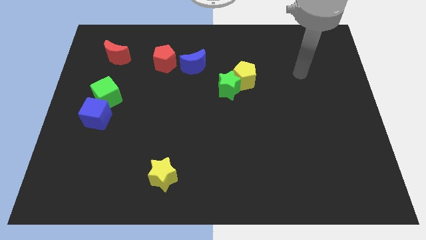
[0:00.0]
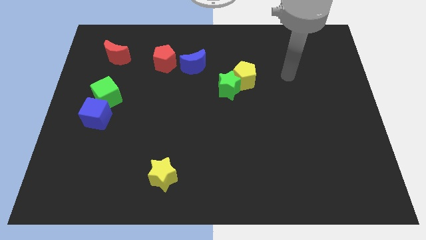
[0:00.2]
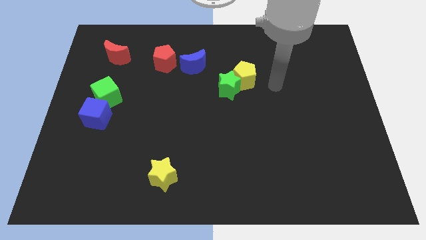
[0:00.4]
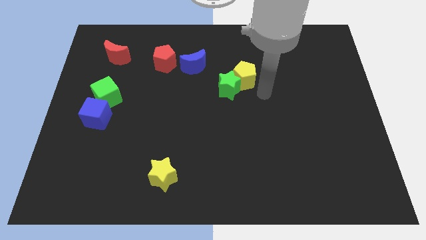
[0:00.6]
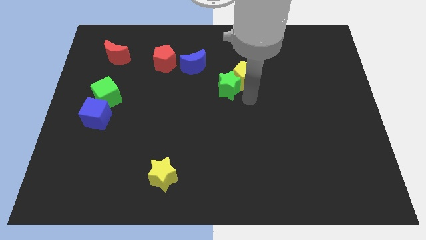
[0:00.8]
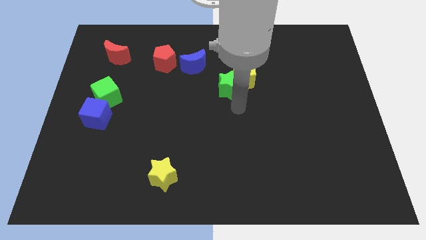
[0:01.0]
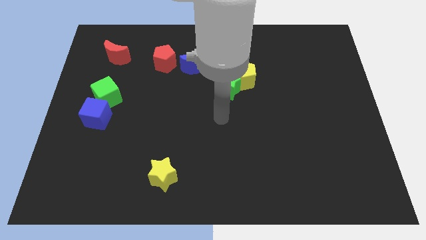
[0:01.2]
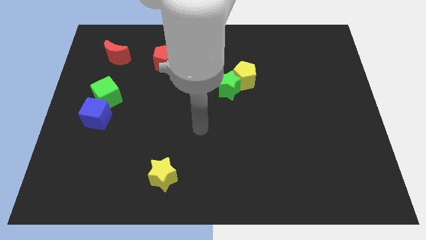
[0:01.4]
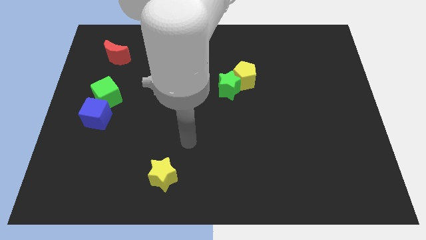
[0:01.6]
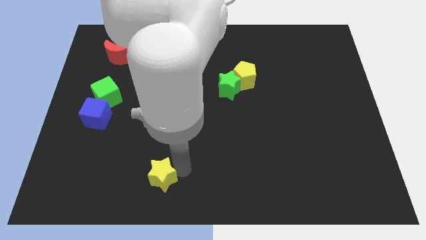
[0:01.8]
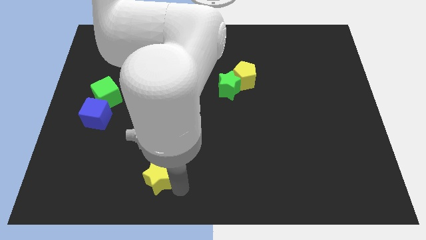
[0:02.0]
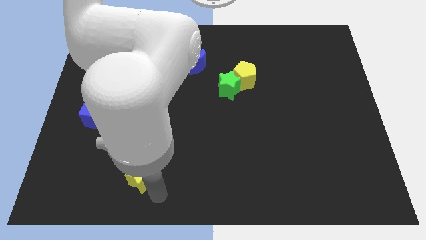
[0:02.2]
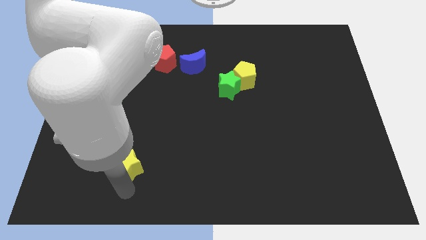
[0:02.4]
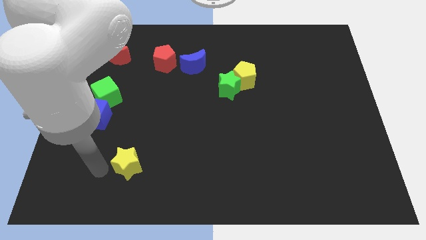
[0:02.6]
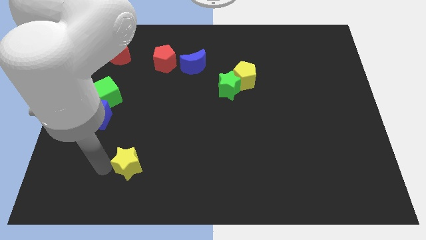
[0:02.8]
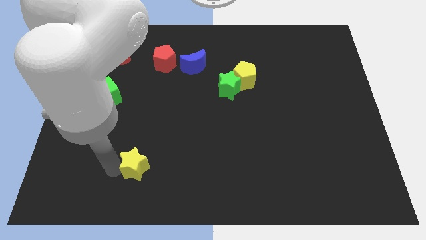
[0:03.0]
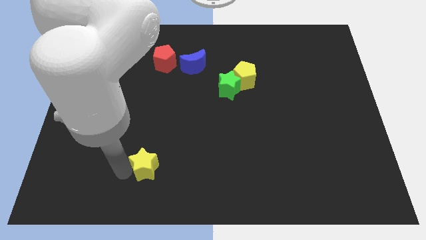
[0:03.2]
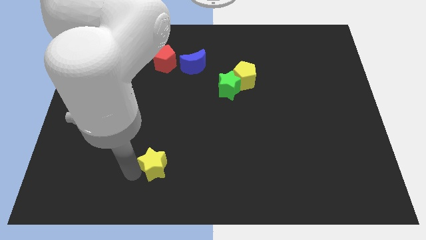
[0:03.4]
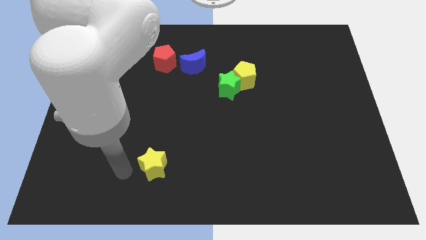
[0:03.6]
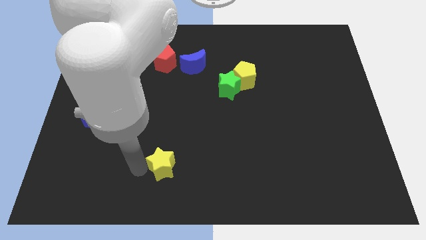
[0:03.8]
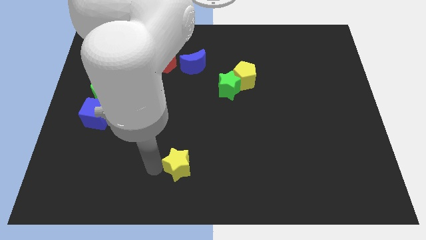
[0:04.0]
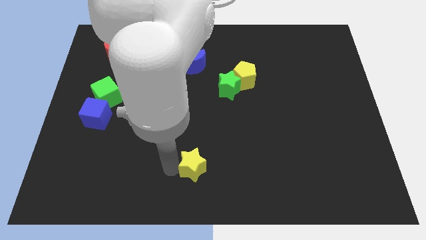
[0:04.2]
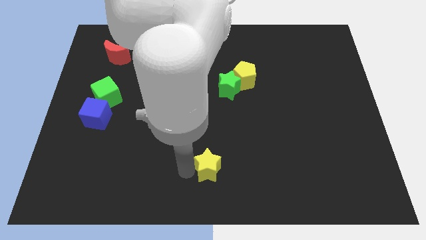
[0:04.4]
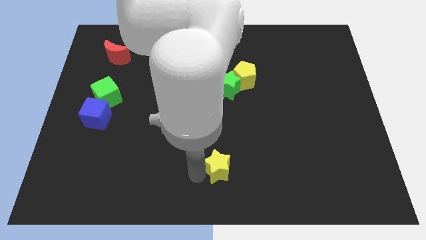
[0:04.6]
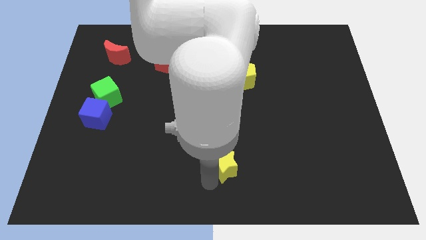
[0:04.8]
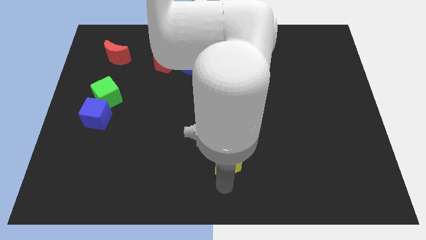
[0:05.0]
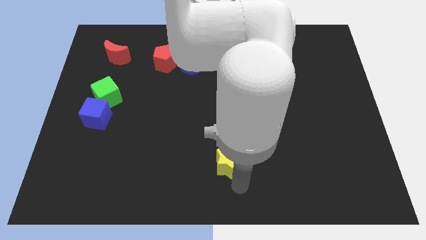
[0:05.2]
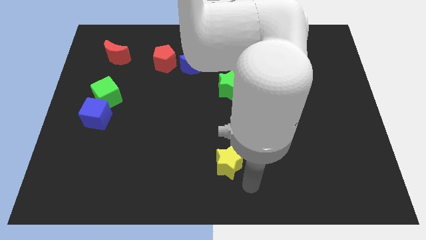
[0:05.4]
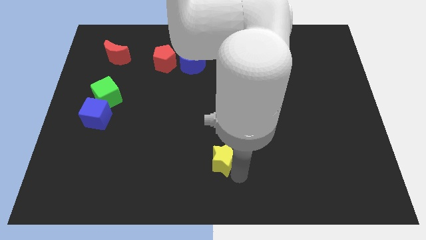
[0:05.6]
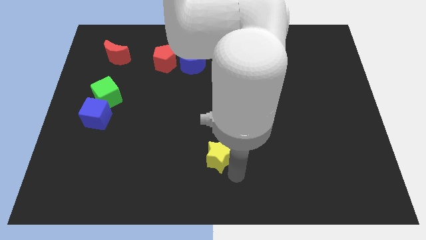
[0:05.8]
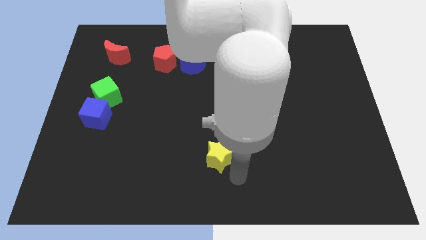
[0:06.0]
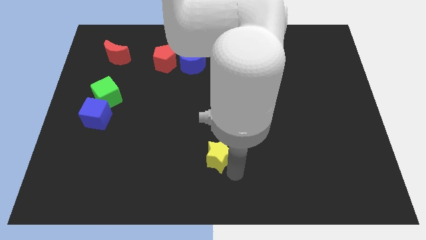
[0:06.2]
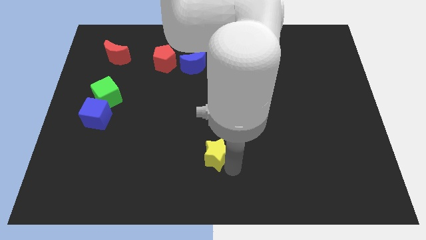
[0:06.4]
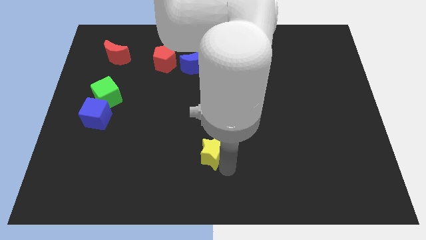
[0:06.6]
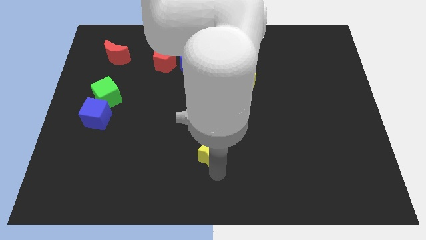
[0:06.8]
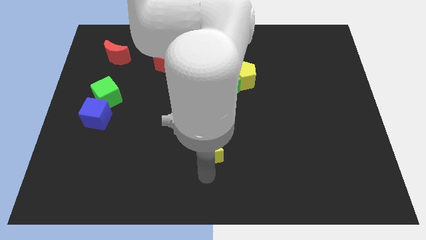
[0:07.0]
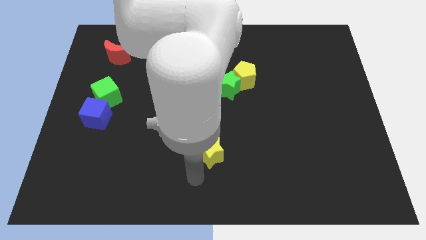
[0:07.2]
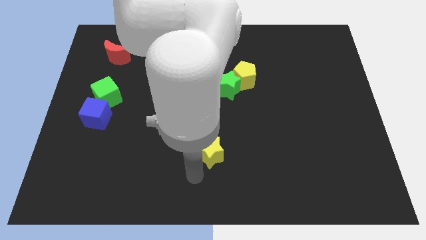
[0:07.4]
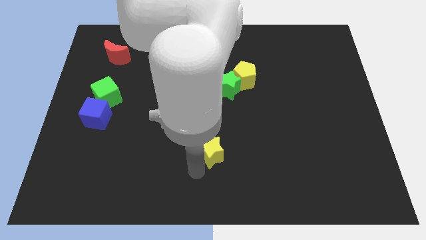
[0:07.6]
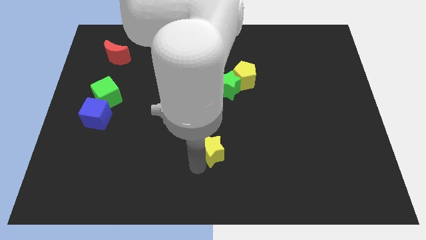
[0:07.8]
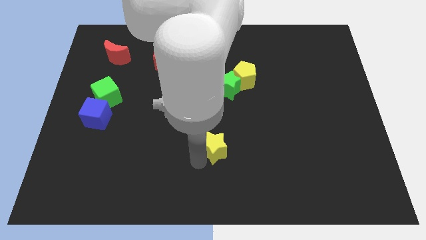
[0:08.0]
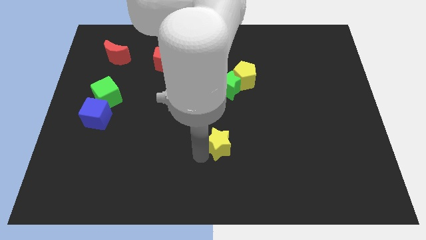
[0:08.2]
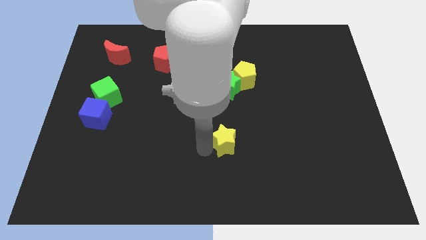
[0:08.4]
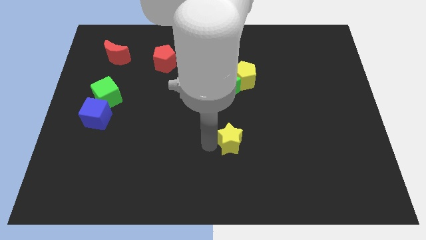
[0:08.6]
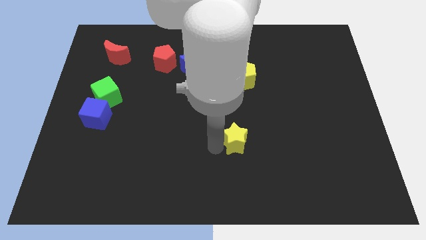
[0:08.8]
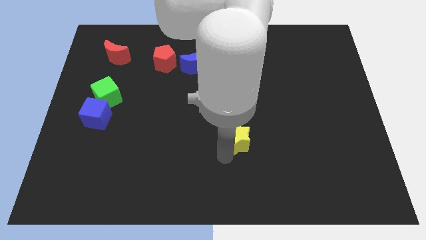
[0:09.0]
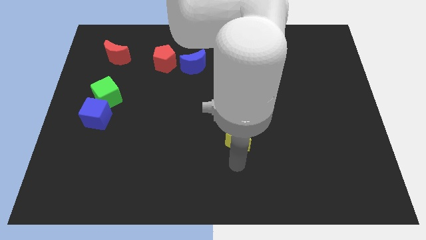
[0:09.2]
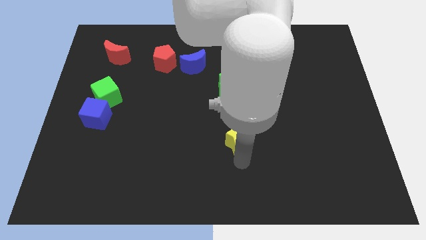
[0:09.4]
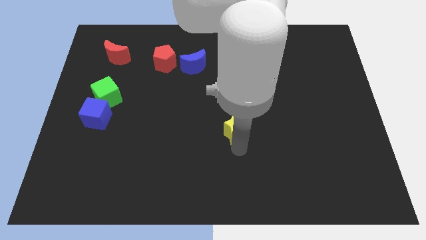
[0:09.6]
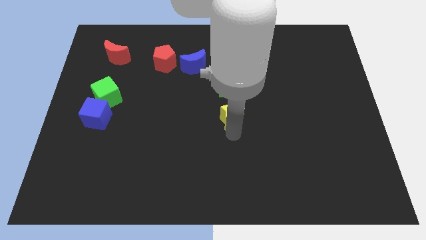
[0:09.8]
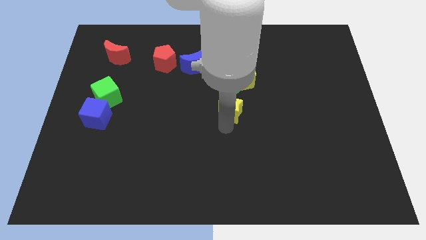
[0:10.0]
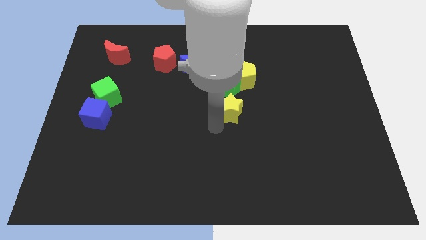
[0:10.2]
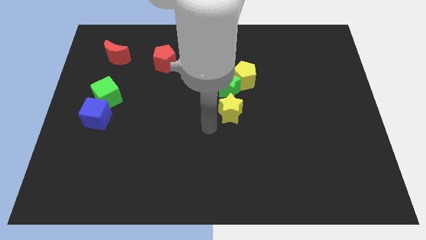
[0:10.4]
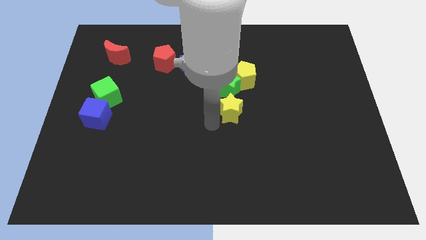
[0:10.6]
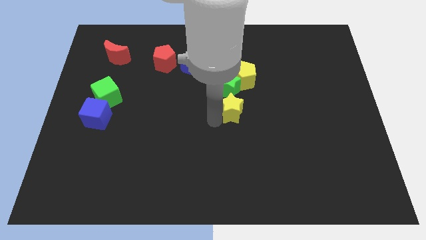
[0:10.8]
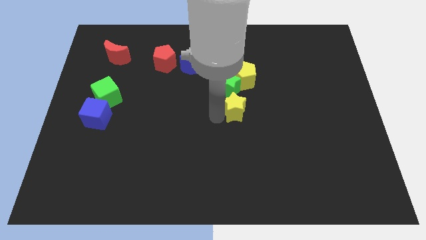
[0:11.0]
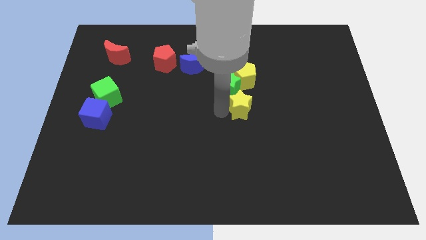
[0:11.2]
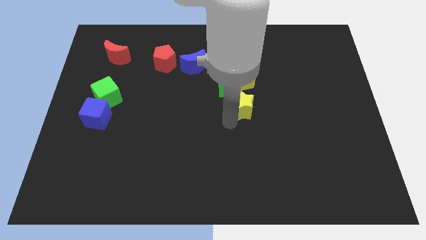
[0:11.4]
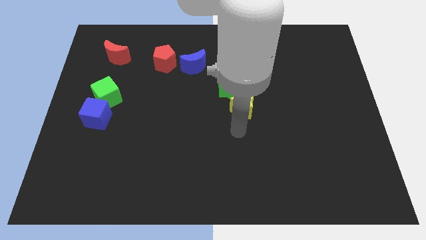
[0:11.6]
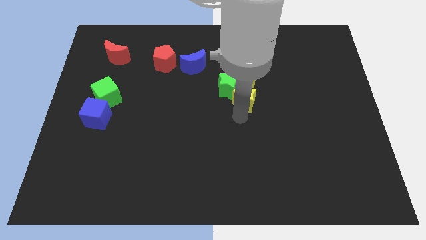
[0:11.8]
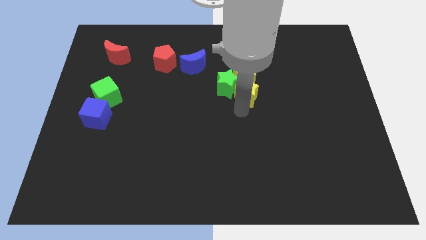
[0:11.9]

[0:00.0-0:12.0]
slide the yellow star towards the yellow pentagon

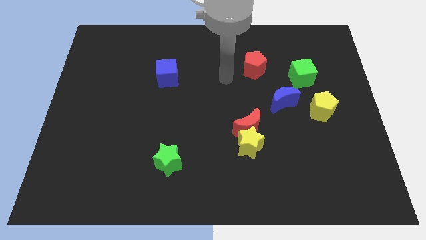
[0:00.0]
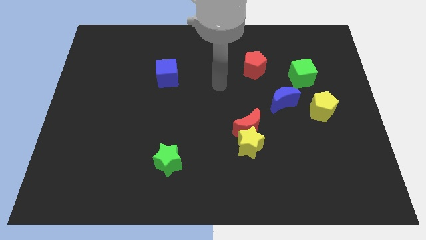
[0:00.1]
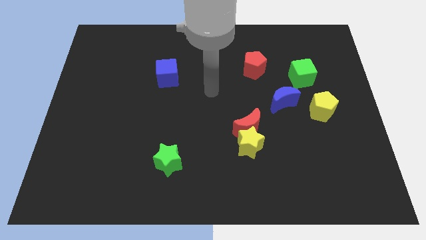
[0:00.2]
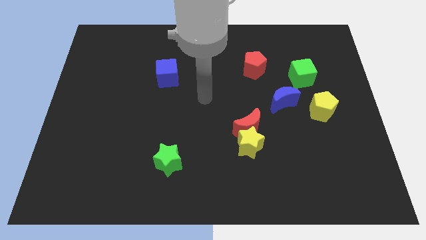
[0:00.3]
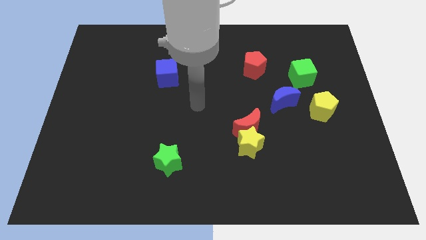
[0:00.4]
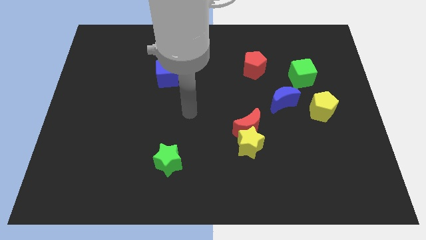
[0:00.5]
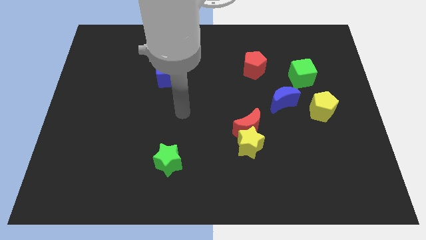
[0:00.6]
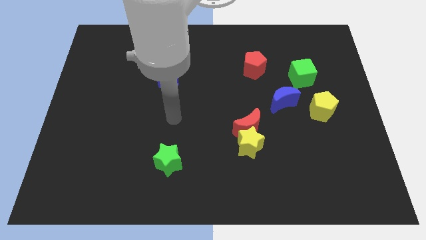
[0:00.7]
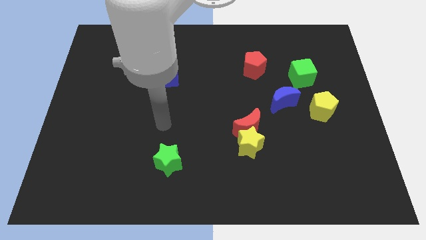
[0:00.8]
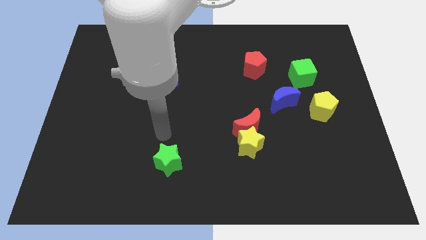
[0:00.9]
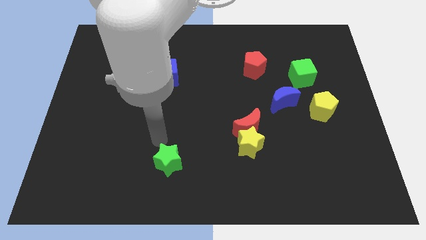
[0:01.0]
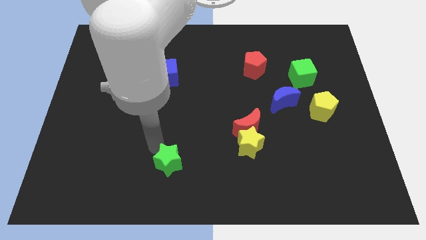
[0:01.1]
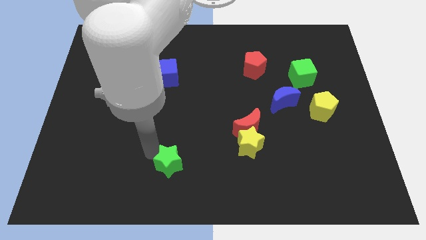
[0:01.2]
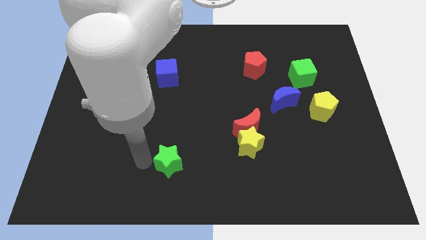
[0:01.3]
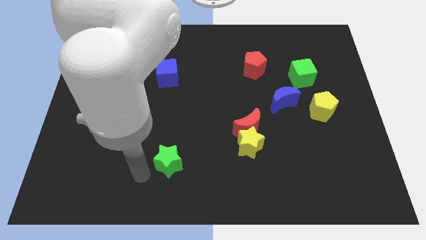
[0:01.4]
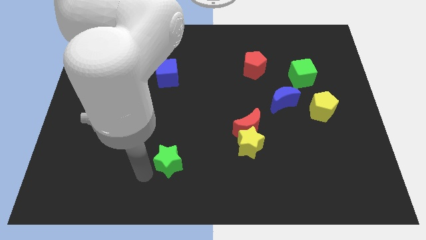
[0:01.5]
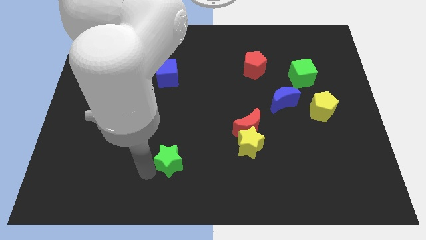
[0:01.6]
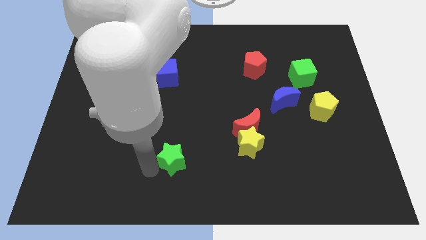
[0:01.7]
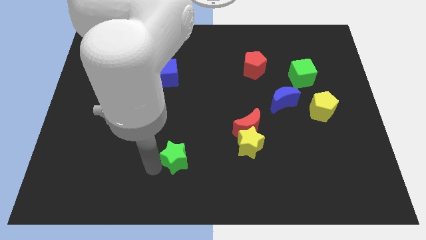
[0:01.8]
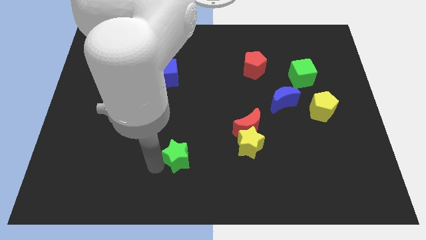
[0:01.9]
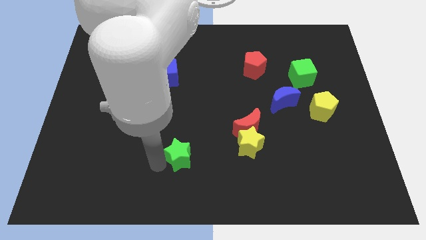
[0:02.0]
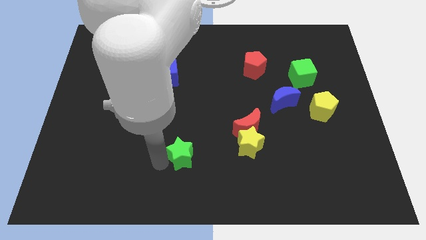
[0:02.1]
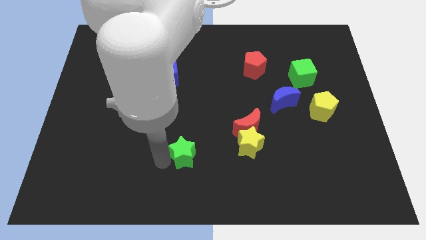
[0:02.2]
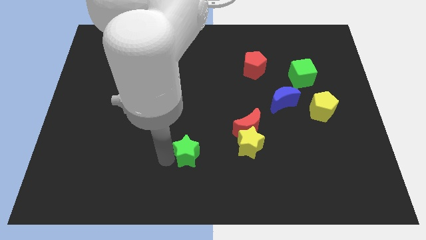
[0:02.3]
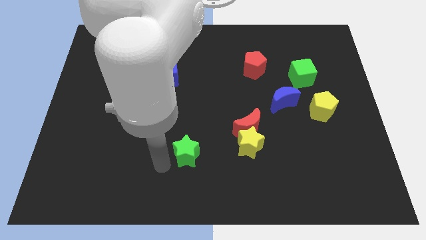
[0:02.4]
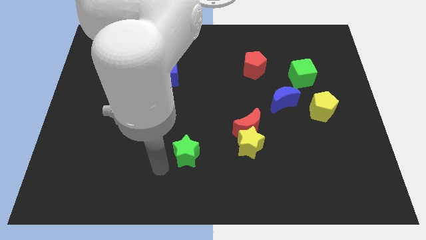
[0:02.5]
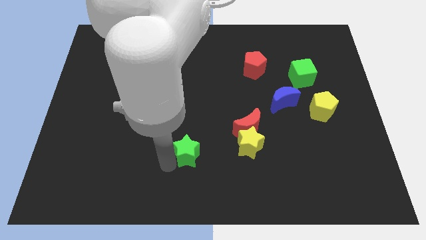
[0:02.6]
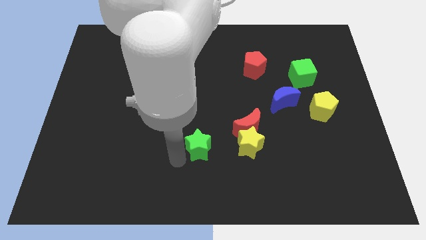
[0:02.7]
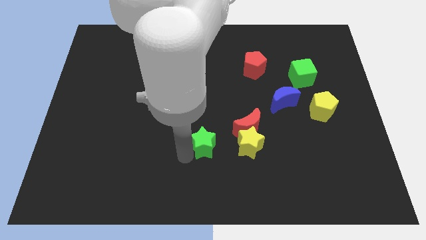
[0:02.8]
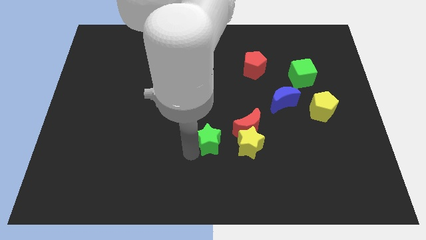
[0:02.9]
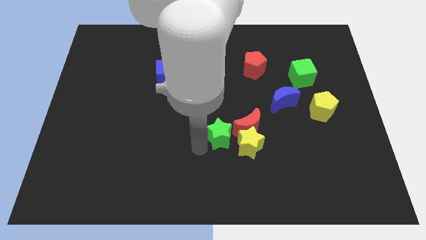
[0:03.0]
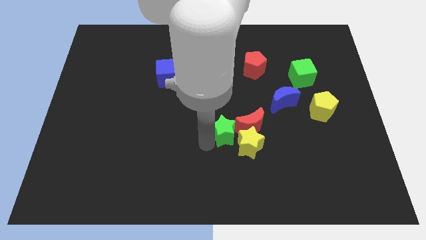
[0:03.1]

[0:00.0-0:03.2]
put the green star next to the red moon
